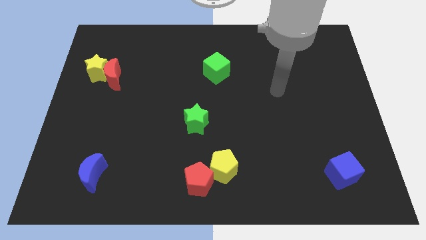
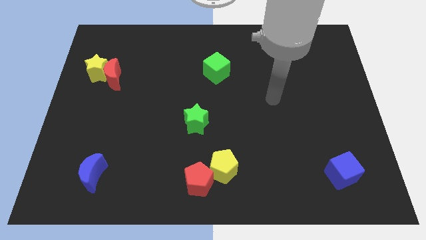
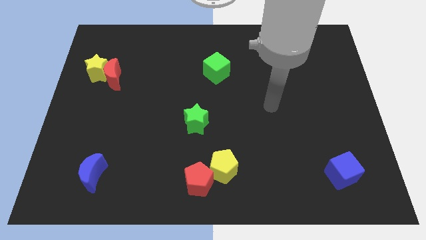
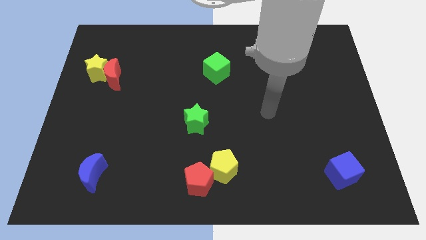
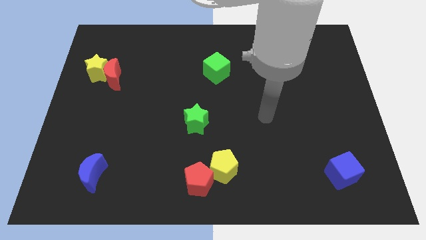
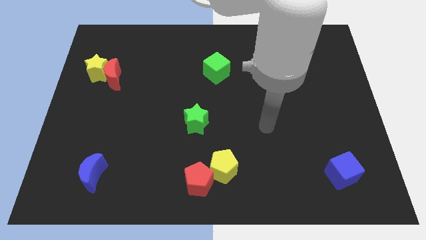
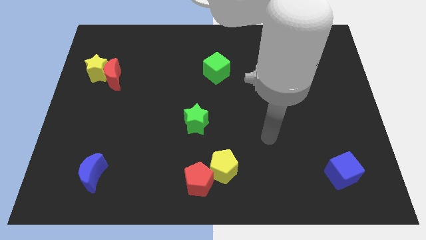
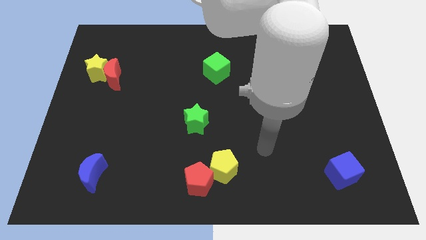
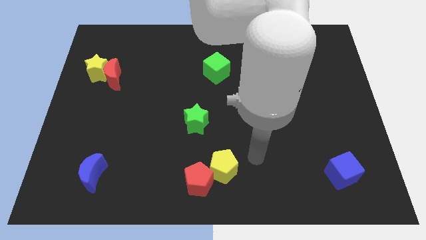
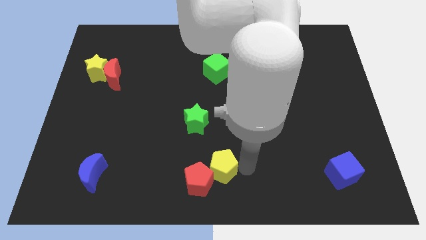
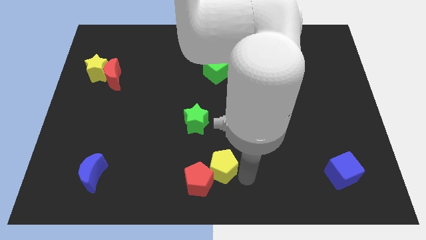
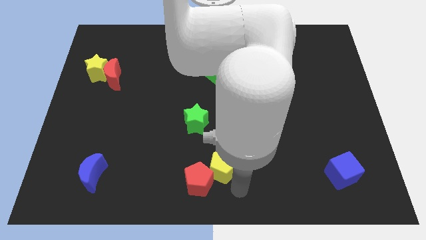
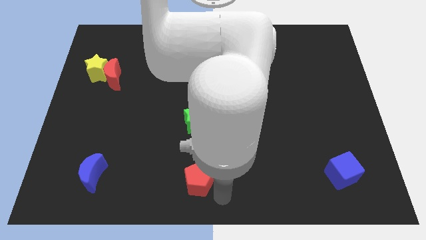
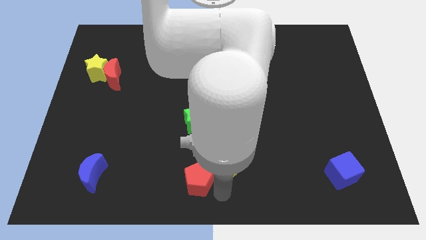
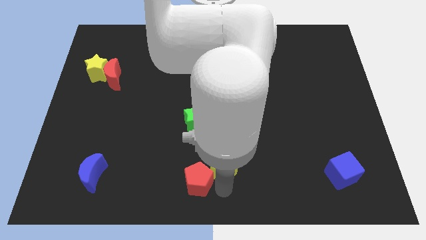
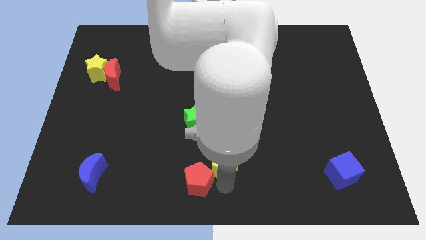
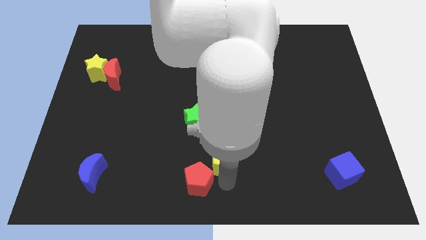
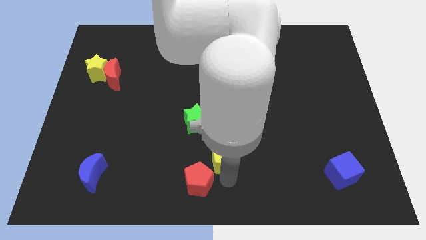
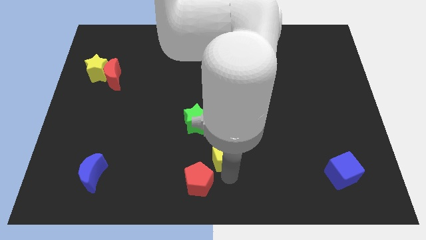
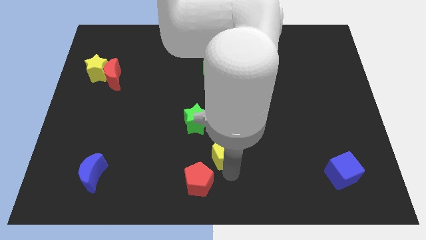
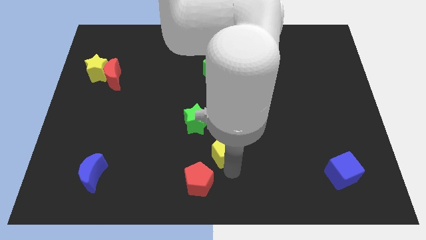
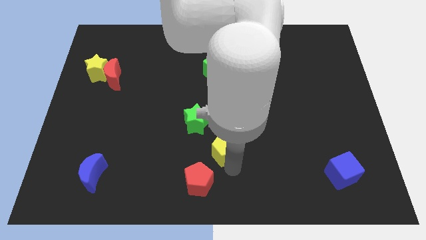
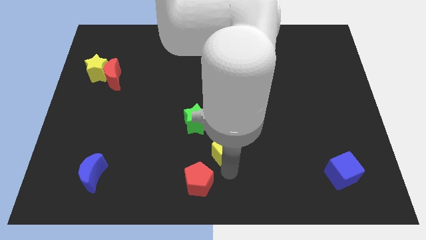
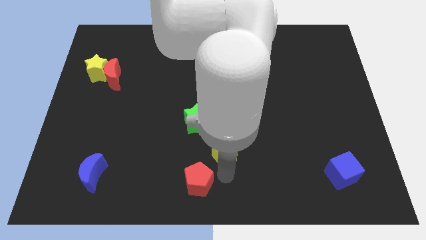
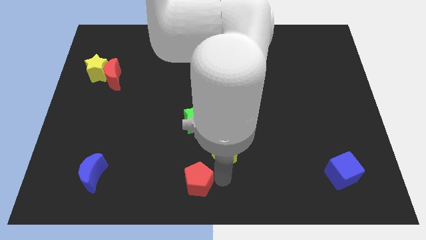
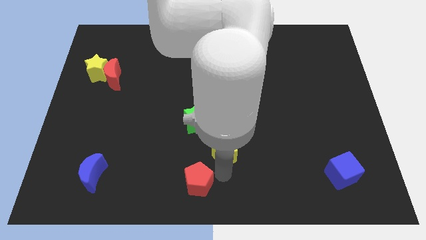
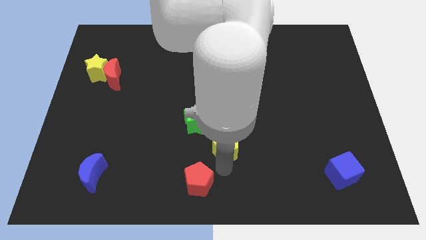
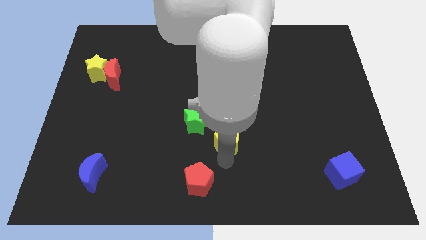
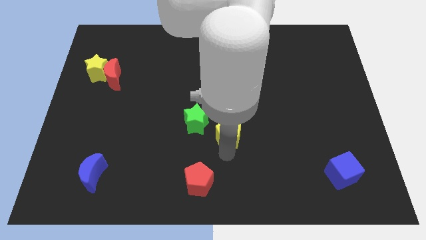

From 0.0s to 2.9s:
slide the yellow pentagon a little up

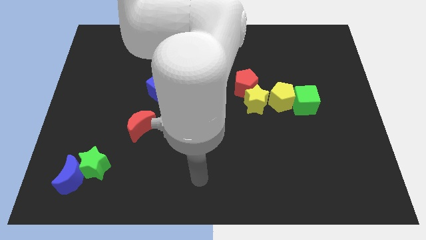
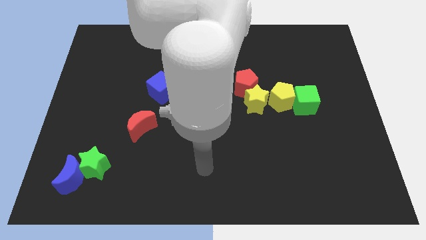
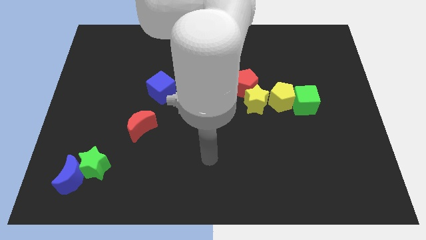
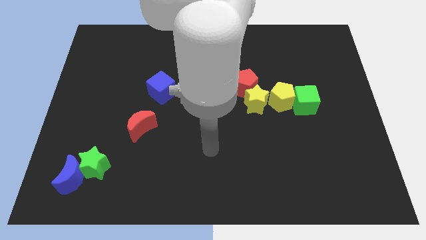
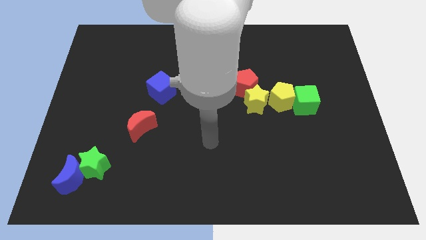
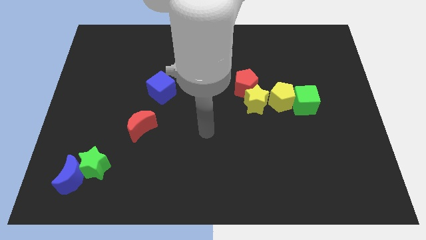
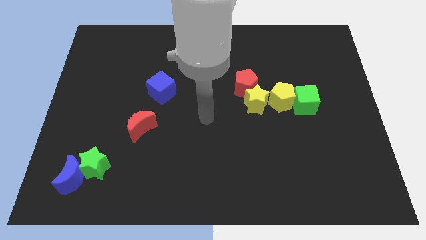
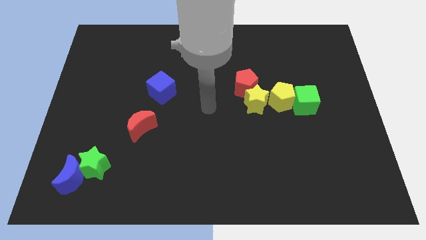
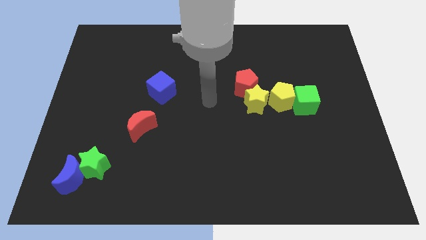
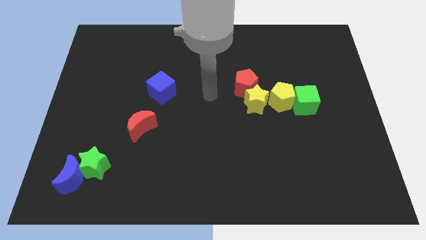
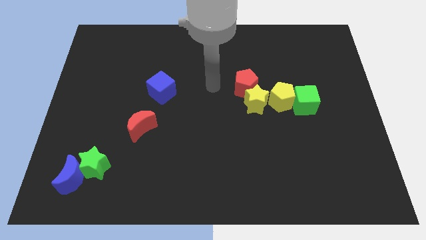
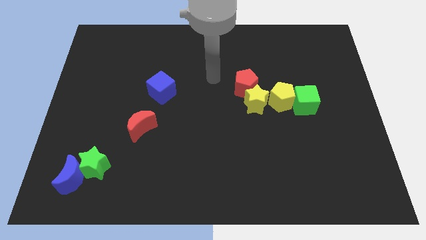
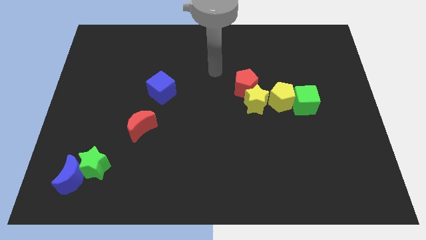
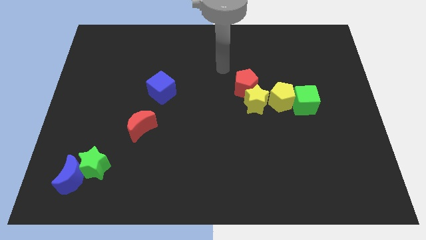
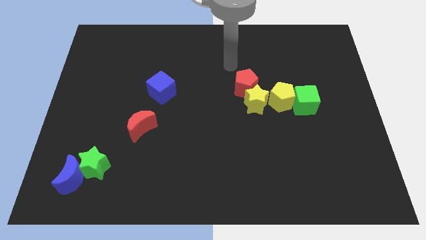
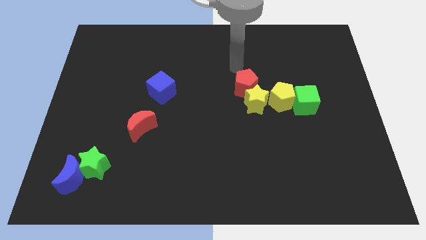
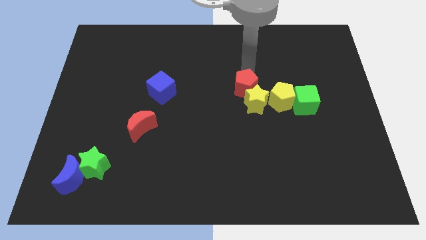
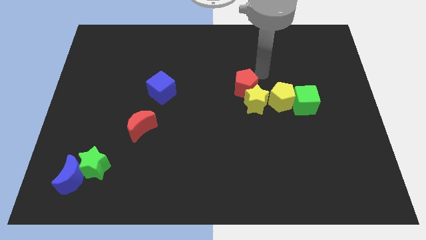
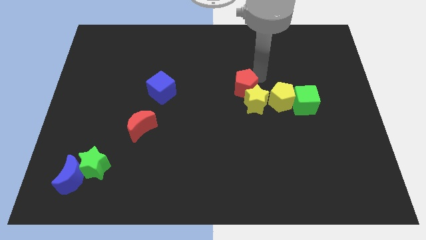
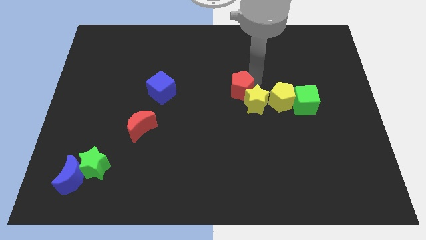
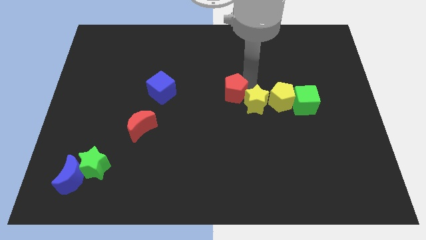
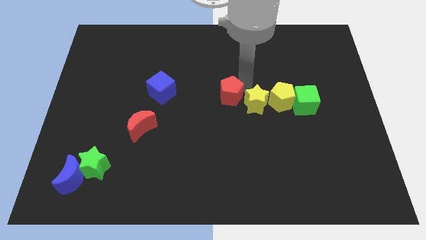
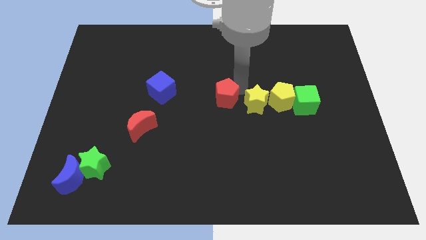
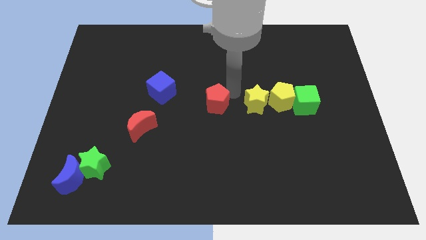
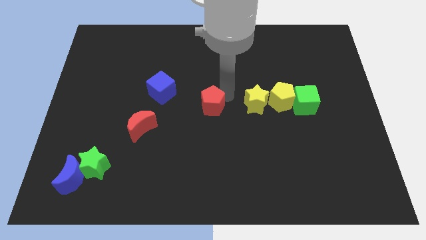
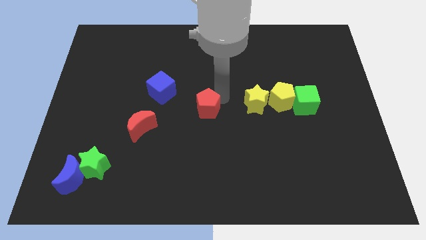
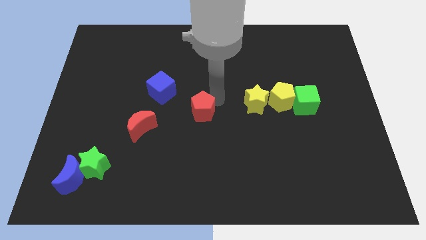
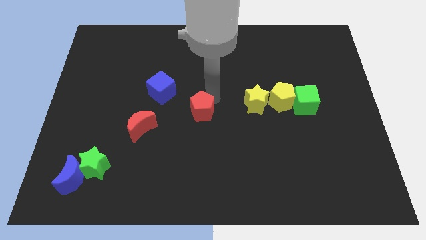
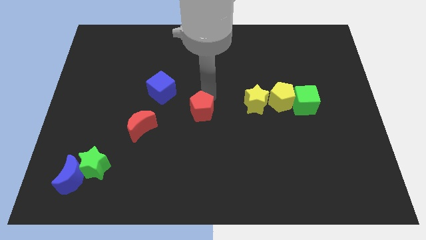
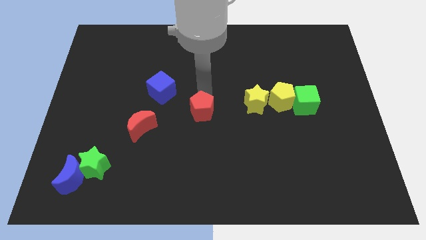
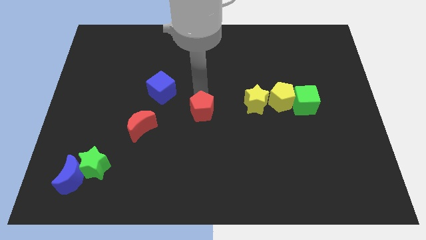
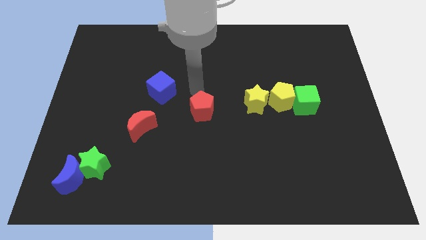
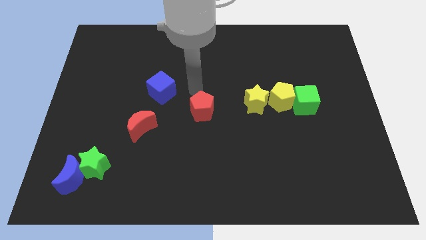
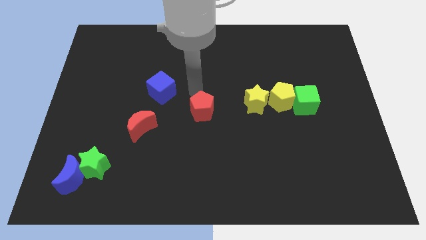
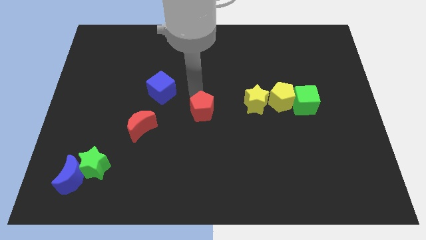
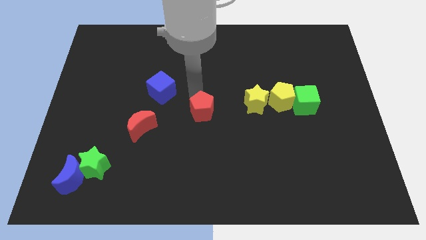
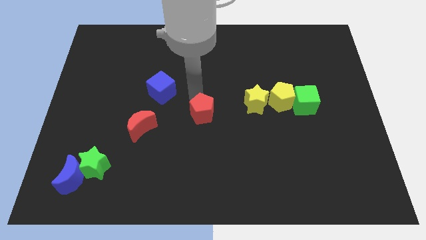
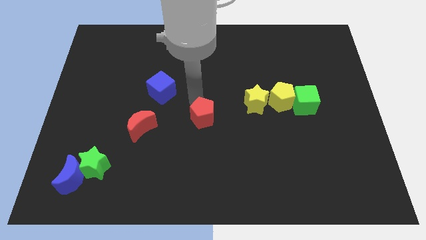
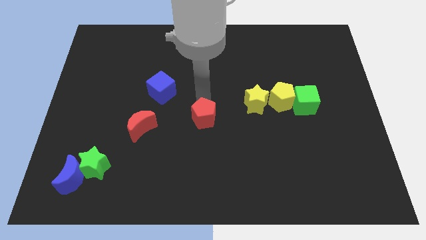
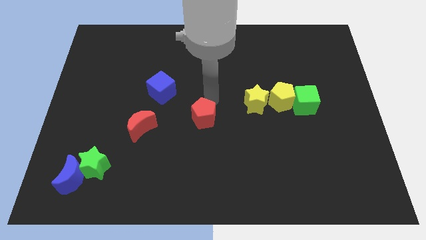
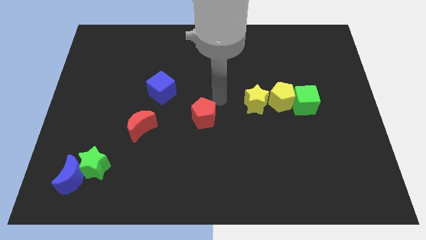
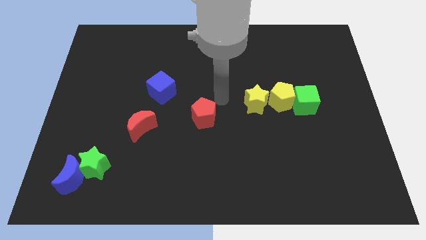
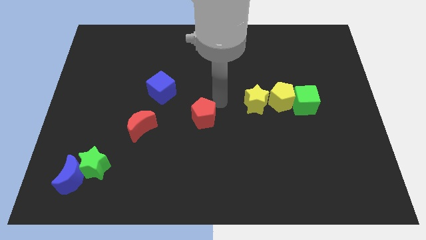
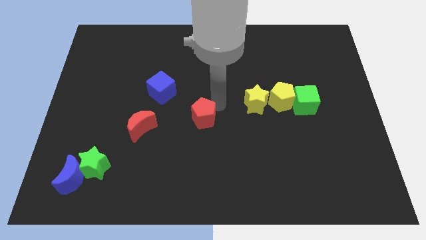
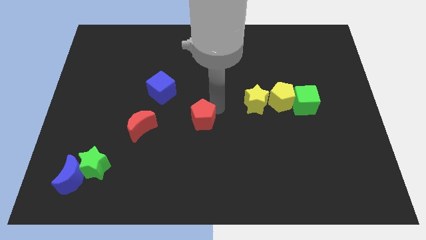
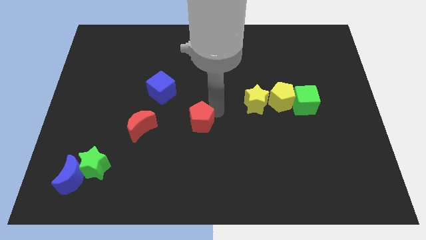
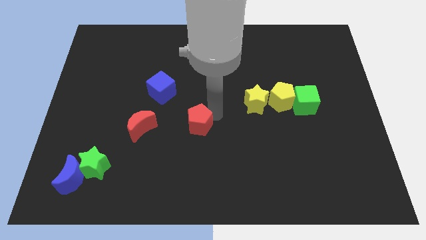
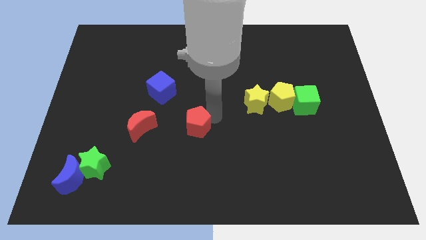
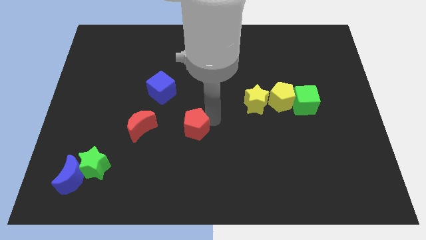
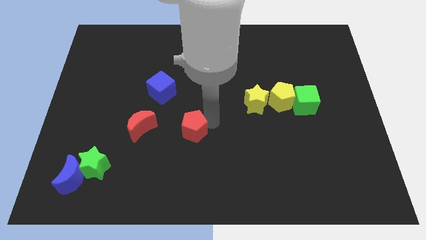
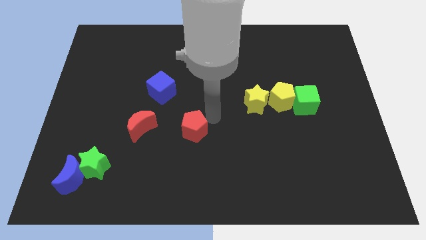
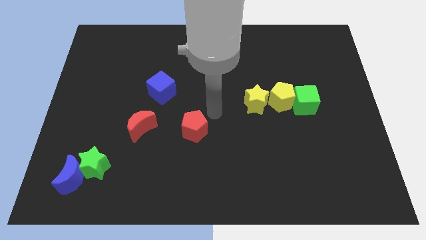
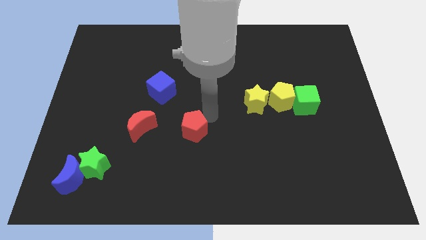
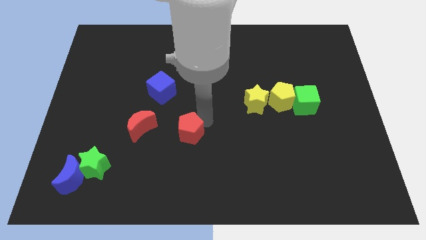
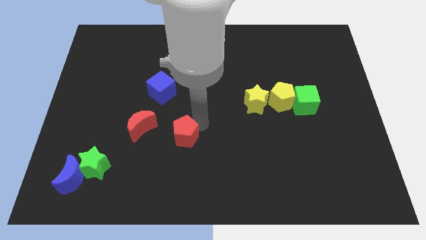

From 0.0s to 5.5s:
move the red pentagon downwards and left
